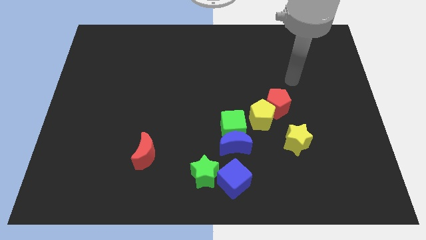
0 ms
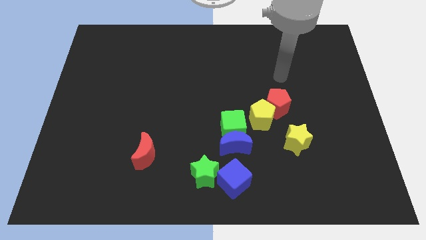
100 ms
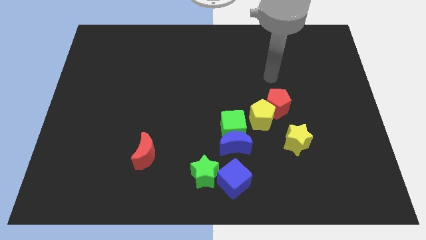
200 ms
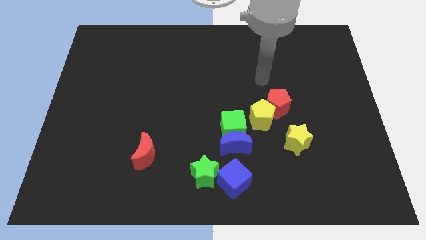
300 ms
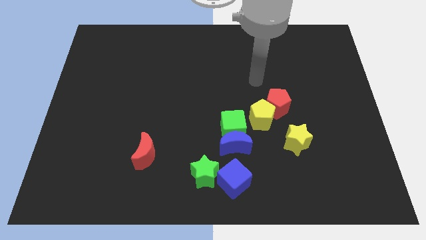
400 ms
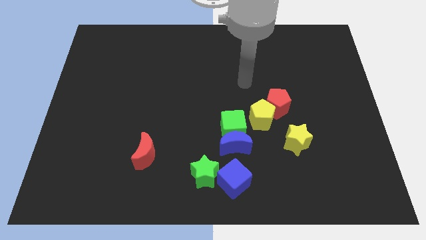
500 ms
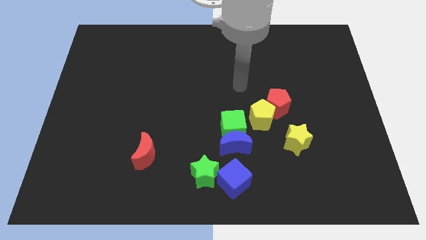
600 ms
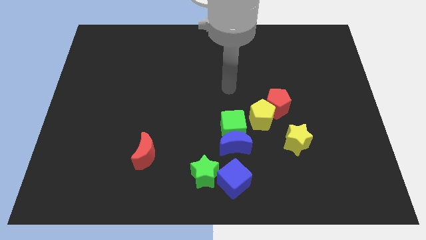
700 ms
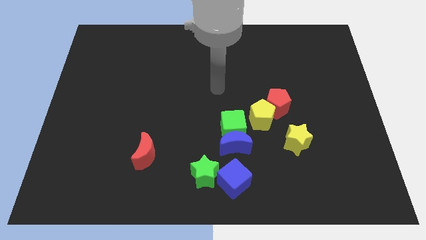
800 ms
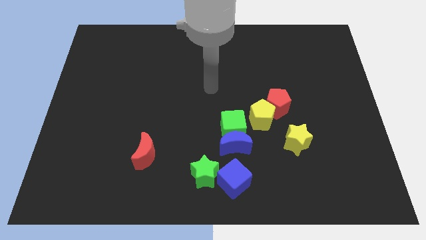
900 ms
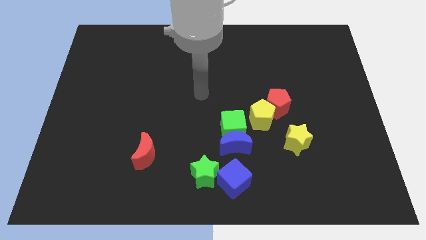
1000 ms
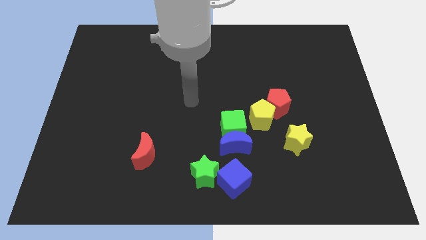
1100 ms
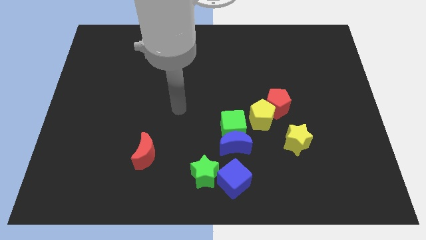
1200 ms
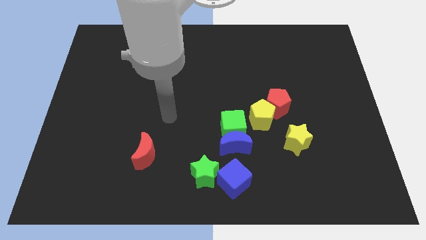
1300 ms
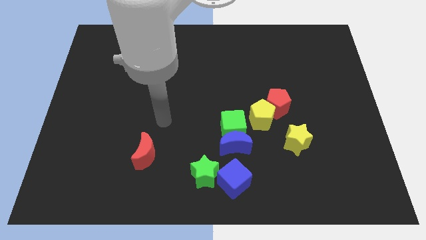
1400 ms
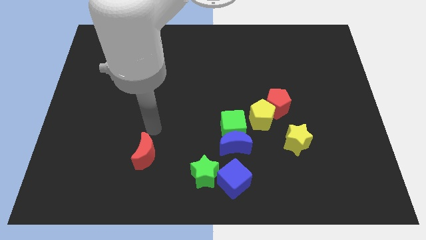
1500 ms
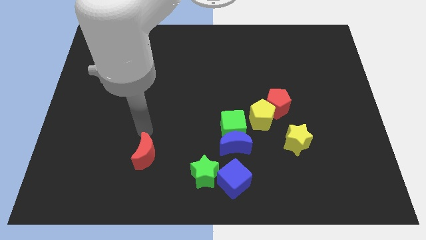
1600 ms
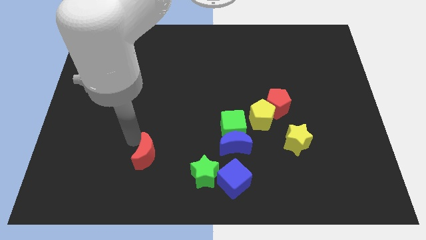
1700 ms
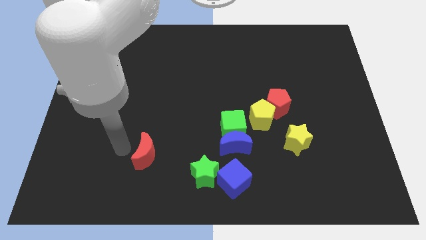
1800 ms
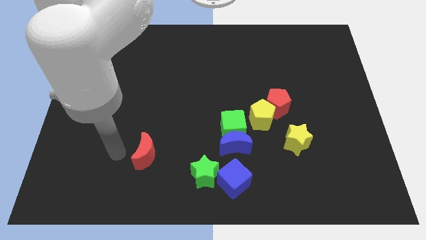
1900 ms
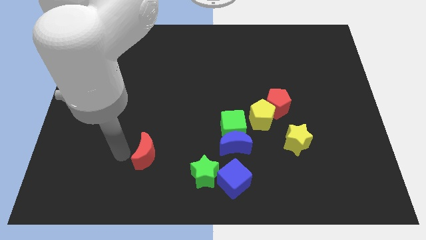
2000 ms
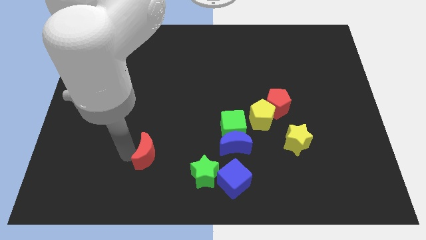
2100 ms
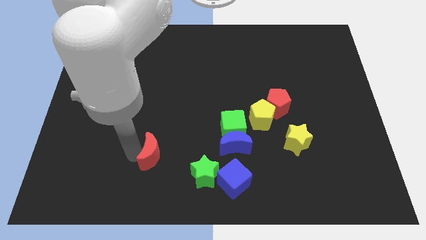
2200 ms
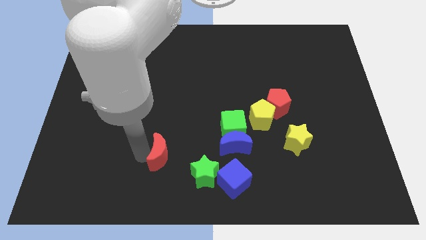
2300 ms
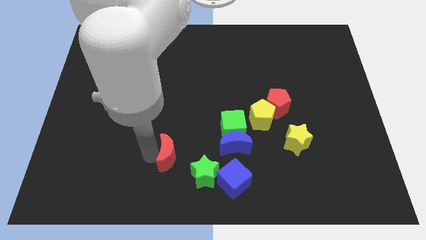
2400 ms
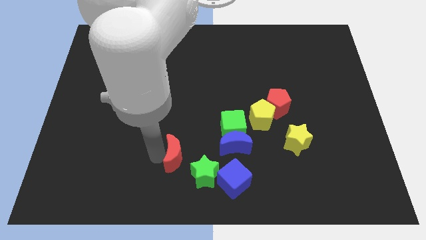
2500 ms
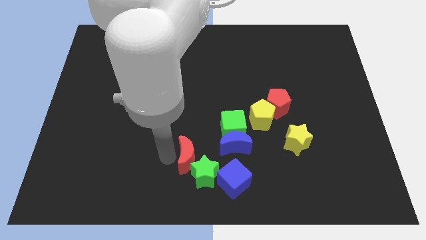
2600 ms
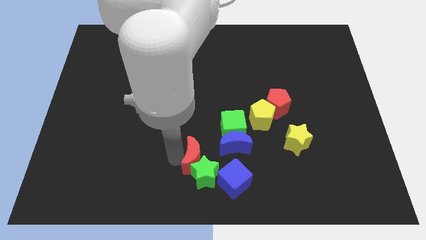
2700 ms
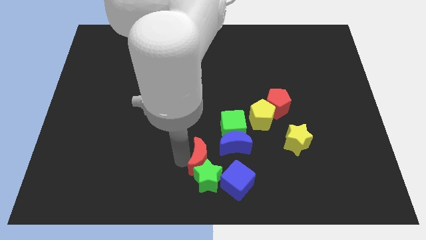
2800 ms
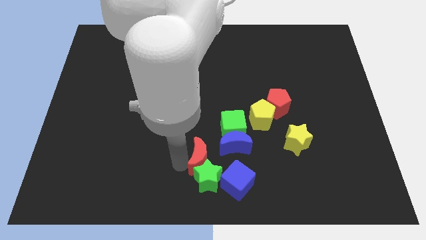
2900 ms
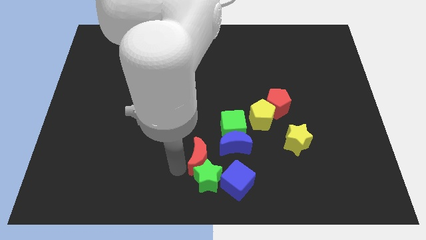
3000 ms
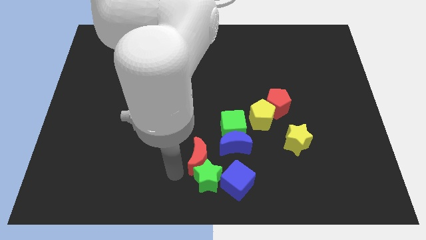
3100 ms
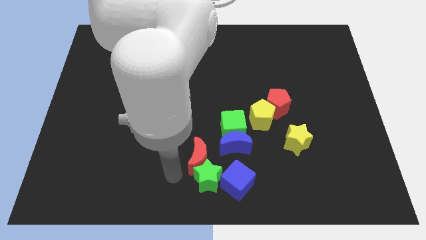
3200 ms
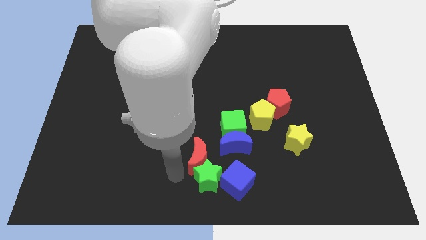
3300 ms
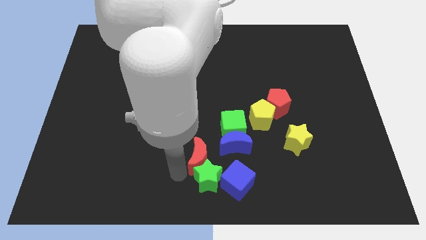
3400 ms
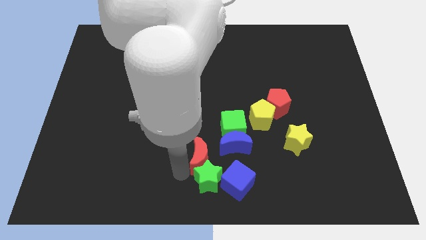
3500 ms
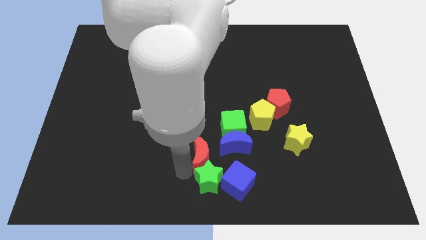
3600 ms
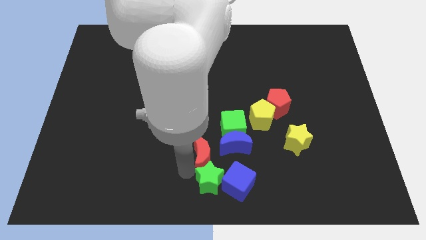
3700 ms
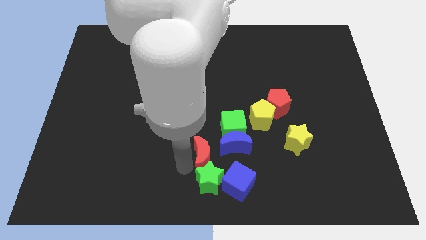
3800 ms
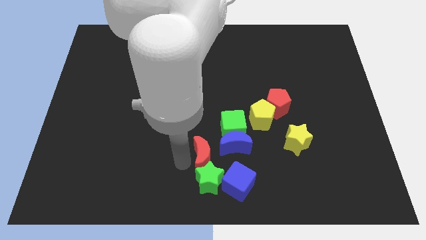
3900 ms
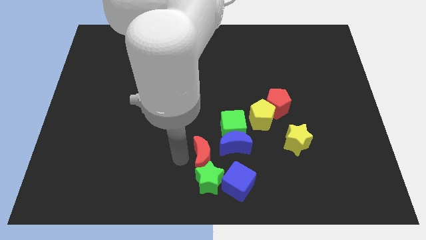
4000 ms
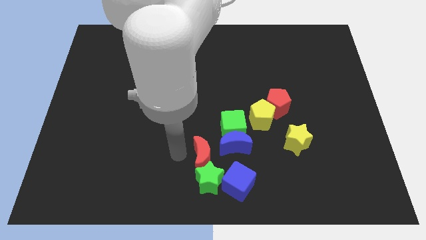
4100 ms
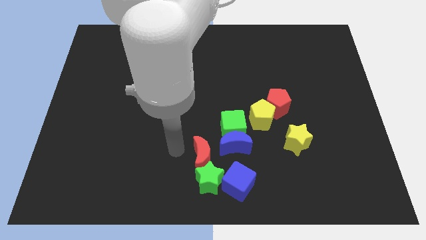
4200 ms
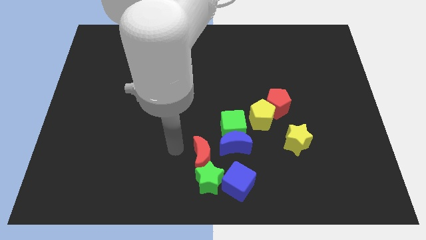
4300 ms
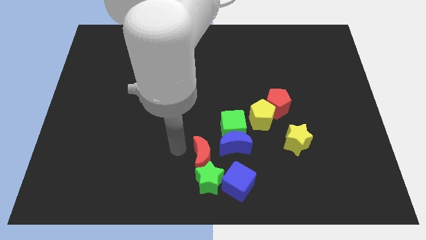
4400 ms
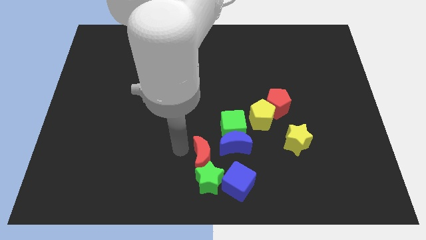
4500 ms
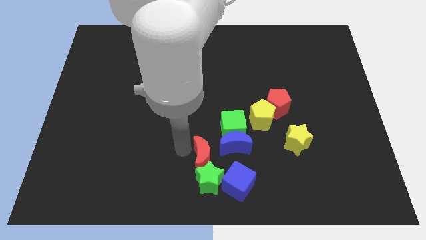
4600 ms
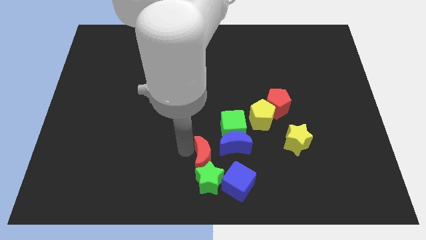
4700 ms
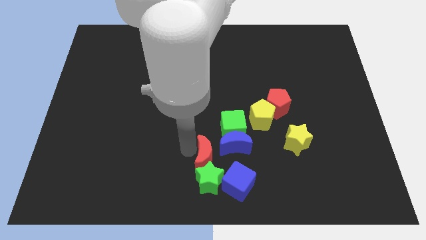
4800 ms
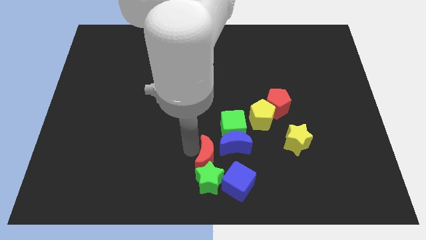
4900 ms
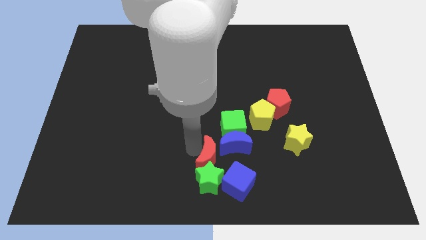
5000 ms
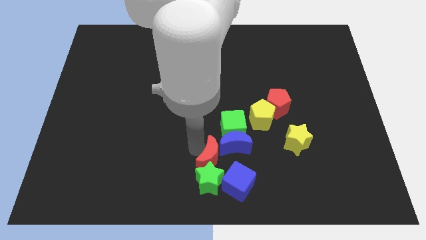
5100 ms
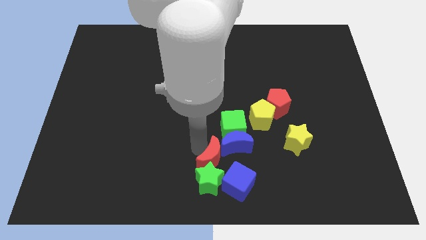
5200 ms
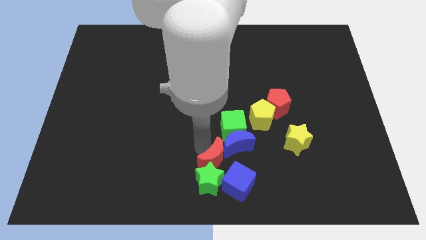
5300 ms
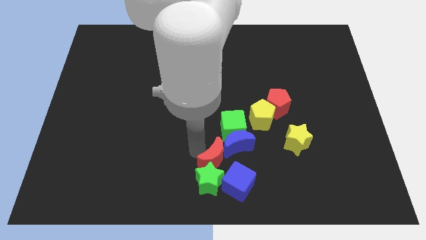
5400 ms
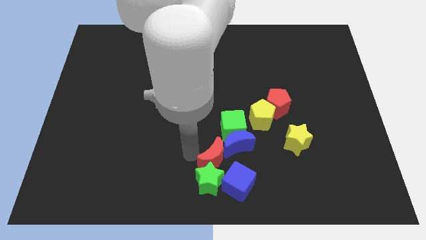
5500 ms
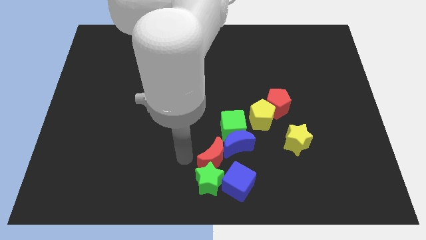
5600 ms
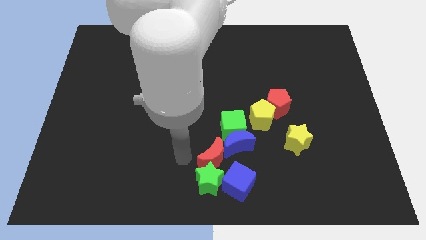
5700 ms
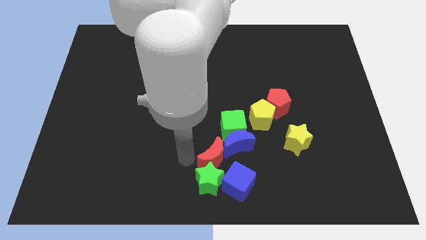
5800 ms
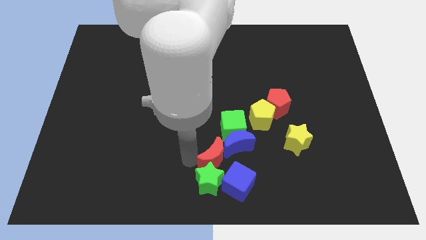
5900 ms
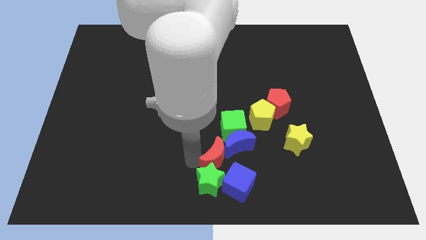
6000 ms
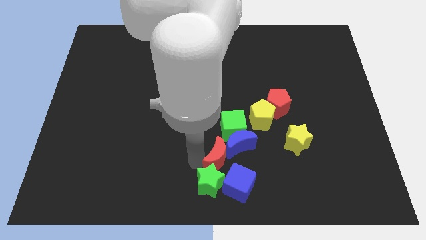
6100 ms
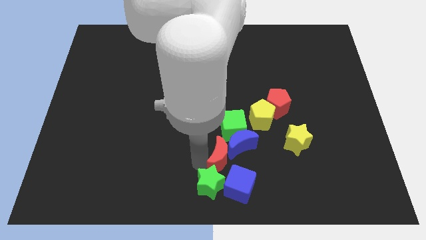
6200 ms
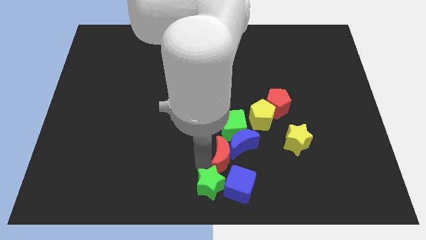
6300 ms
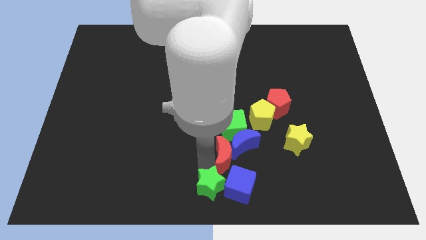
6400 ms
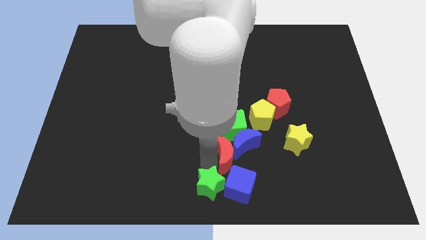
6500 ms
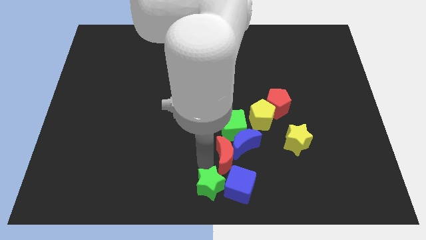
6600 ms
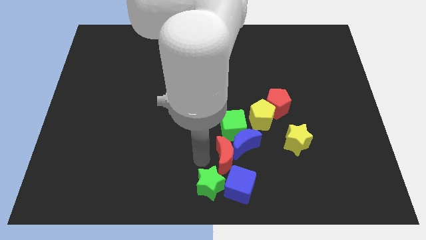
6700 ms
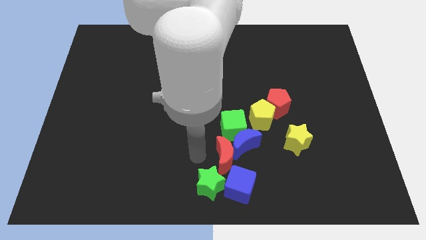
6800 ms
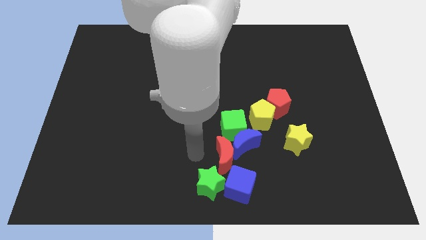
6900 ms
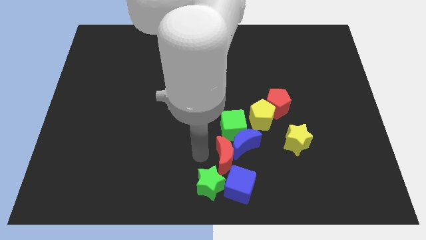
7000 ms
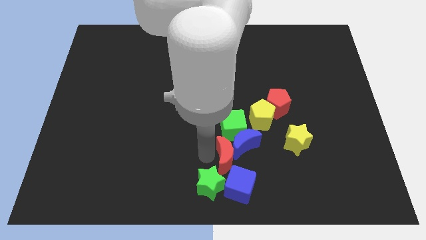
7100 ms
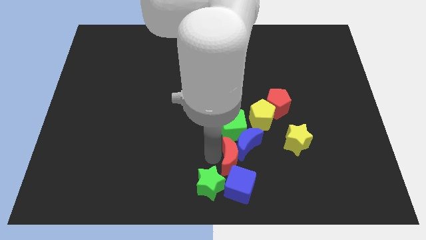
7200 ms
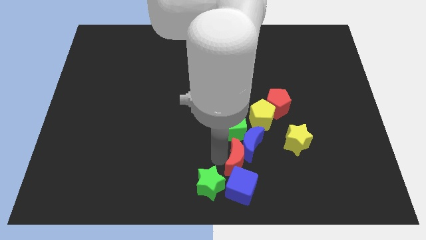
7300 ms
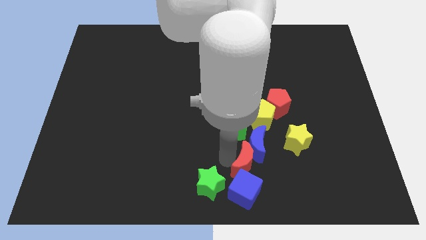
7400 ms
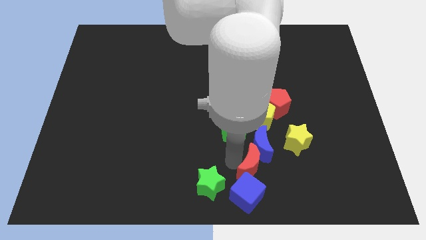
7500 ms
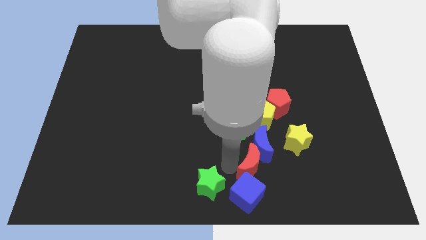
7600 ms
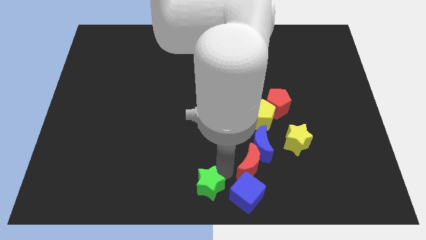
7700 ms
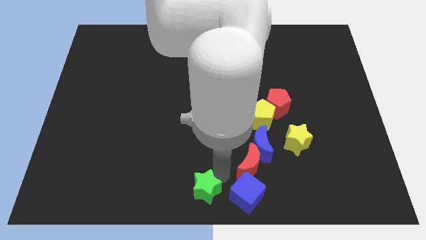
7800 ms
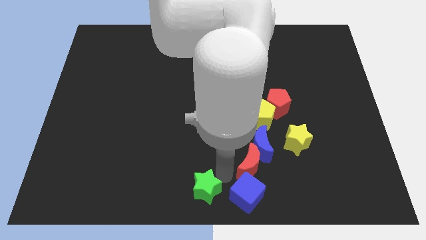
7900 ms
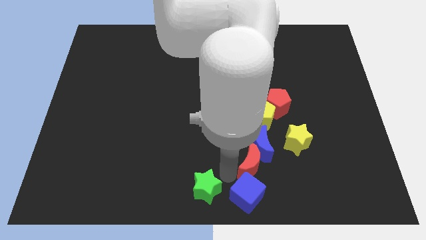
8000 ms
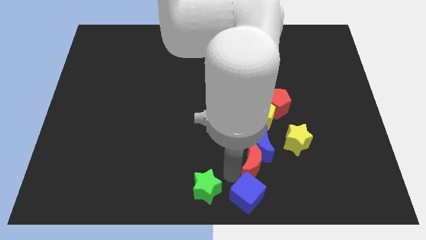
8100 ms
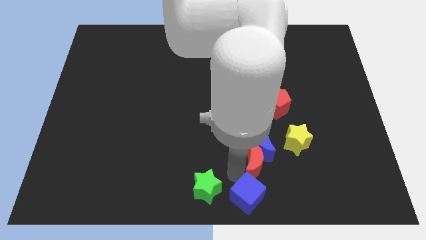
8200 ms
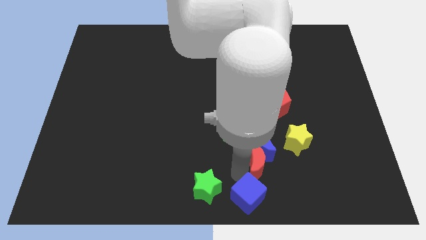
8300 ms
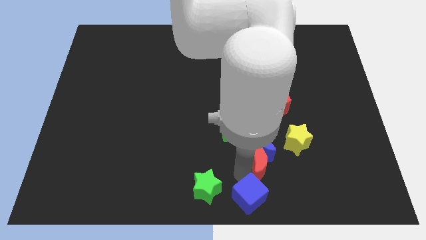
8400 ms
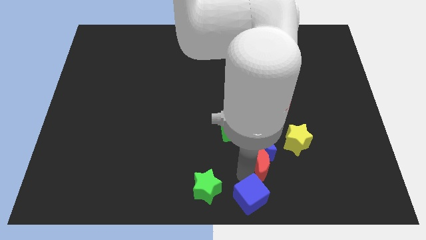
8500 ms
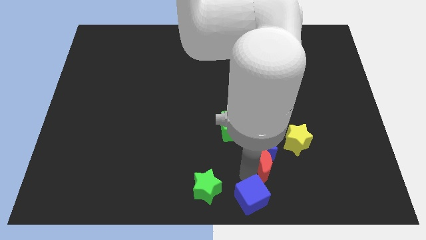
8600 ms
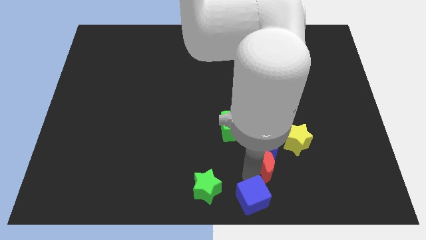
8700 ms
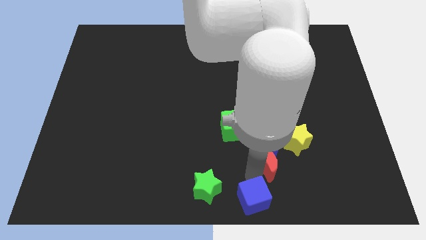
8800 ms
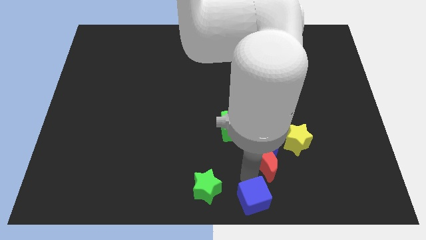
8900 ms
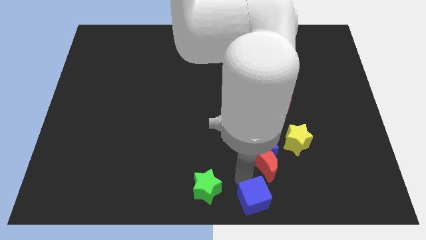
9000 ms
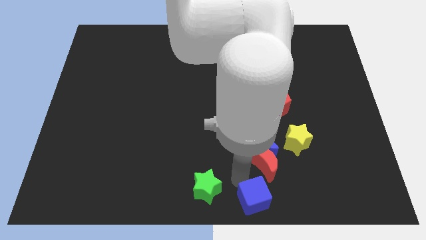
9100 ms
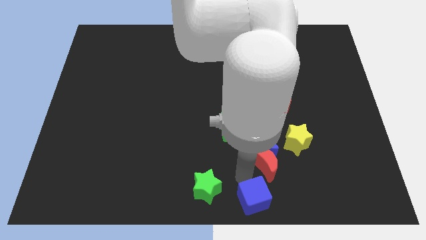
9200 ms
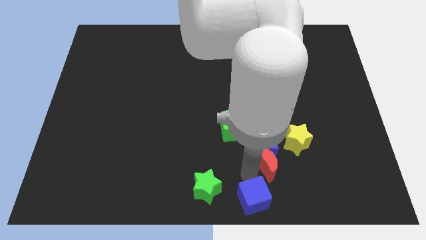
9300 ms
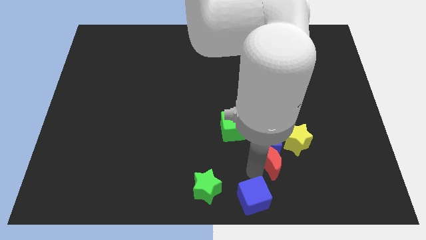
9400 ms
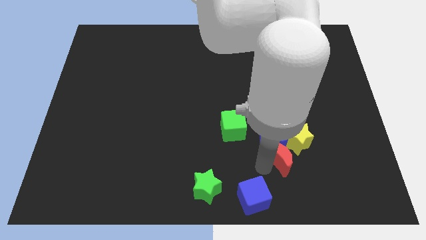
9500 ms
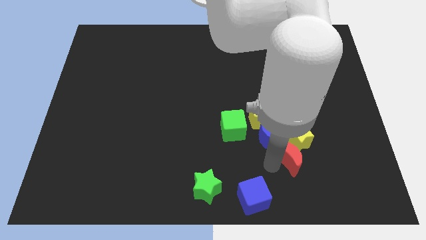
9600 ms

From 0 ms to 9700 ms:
put the red moon to the yellow star
